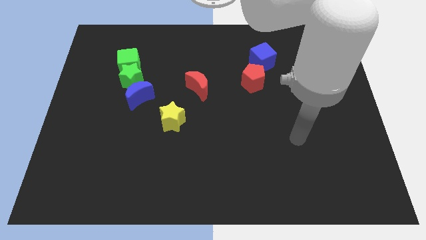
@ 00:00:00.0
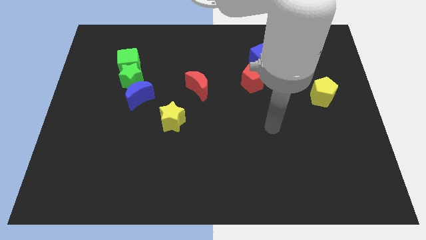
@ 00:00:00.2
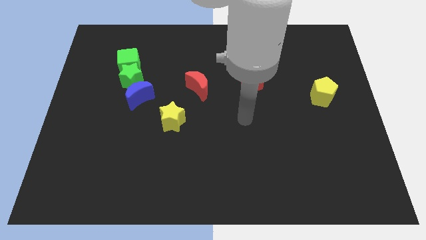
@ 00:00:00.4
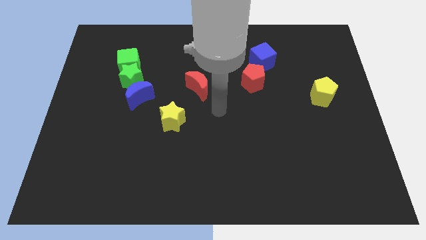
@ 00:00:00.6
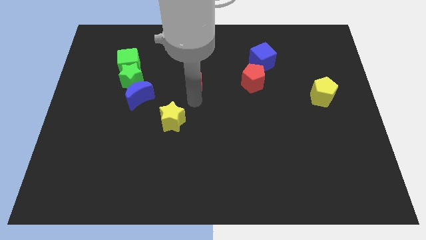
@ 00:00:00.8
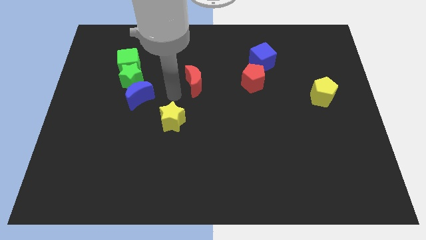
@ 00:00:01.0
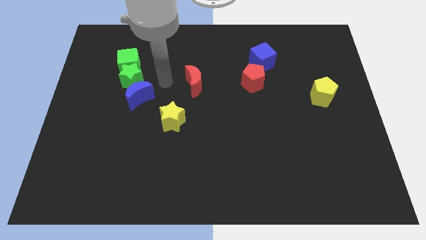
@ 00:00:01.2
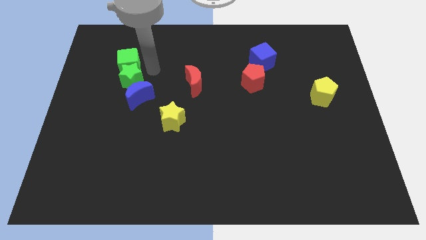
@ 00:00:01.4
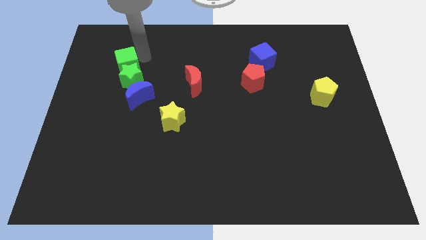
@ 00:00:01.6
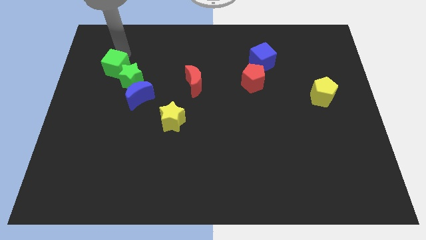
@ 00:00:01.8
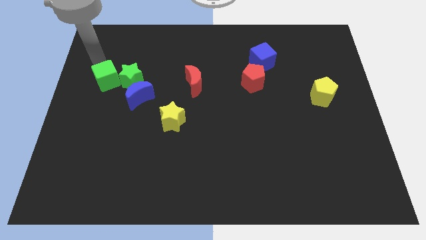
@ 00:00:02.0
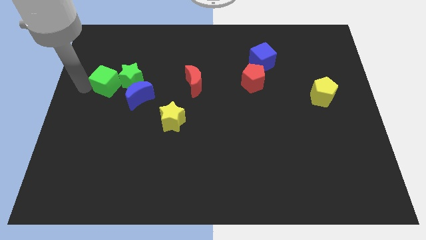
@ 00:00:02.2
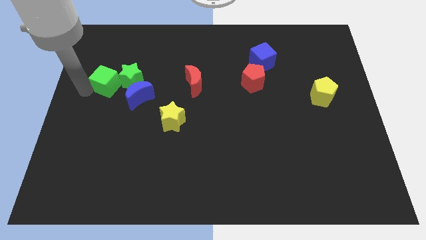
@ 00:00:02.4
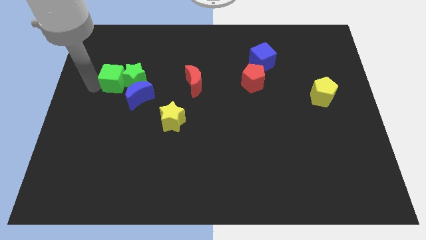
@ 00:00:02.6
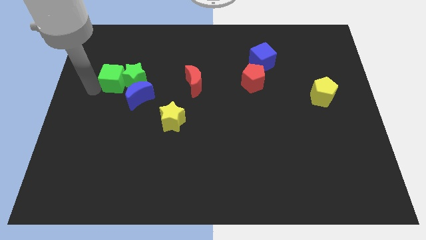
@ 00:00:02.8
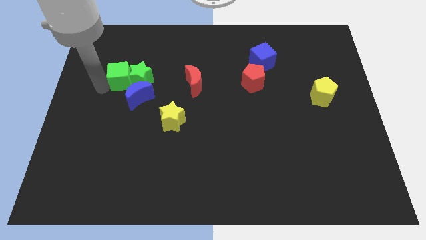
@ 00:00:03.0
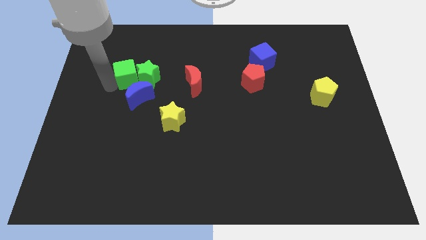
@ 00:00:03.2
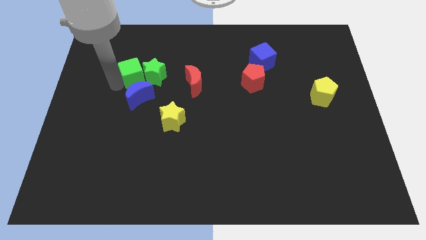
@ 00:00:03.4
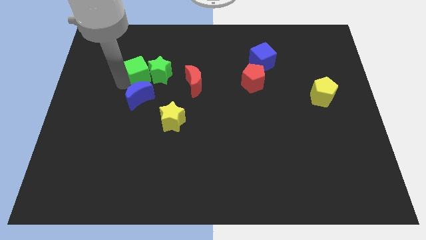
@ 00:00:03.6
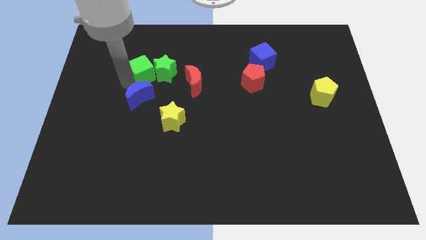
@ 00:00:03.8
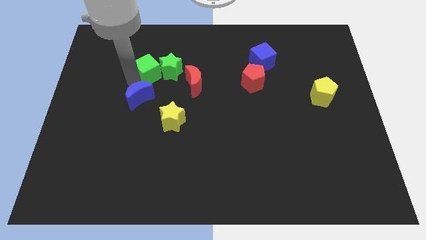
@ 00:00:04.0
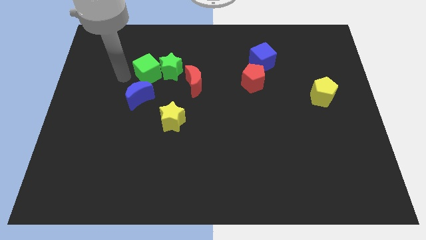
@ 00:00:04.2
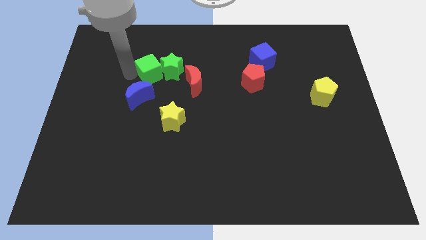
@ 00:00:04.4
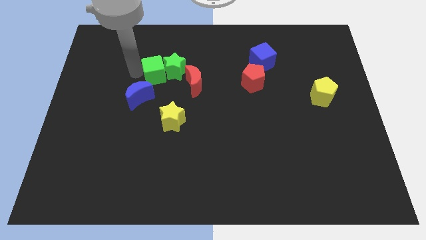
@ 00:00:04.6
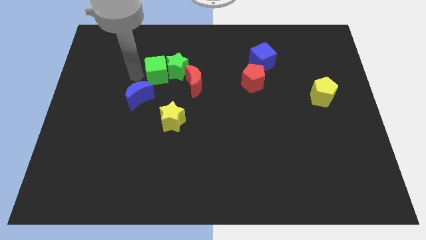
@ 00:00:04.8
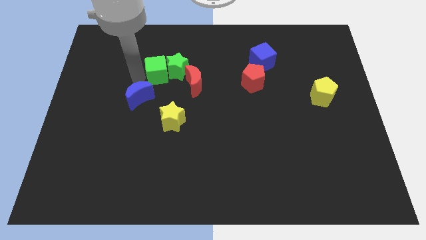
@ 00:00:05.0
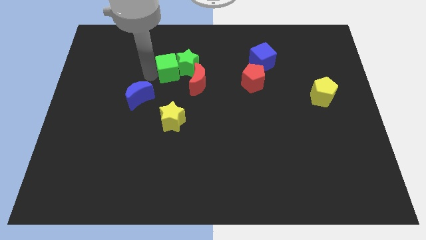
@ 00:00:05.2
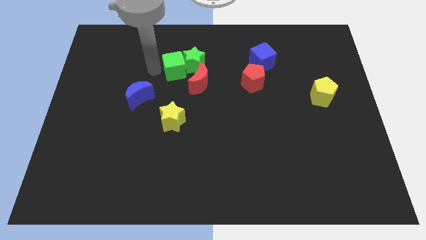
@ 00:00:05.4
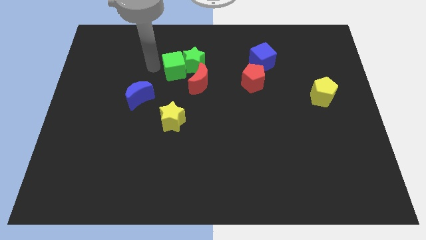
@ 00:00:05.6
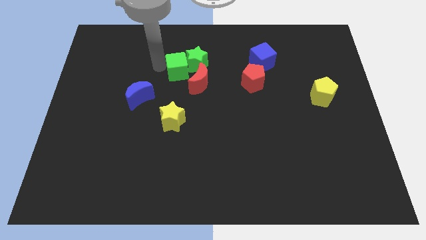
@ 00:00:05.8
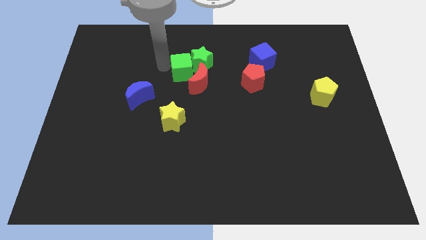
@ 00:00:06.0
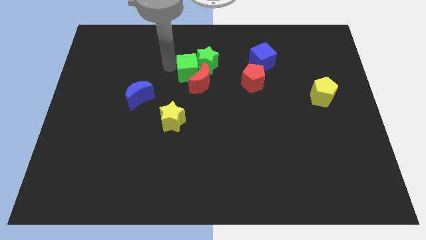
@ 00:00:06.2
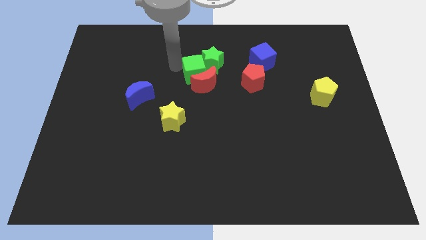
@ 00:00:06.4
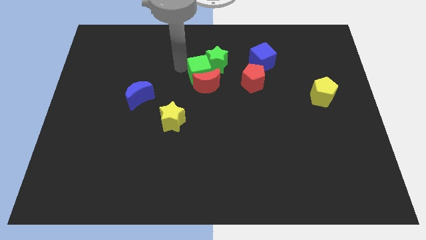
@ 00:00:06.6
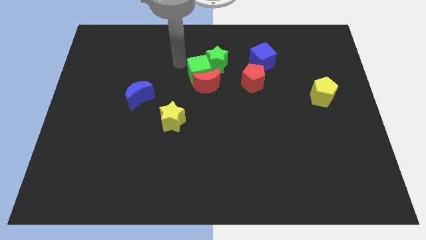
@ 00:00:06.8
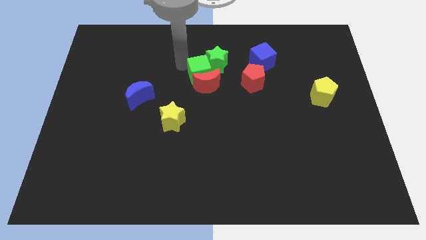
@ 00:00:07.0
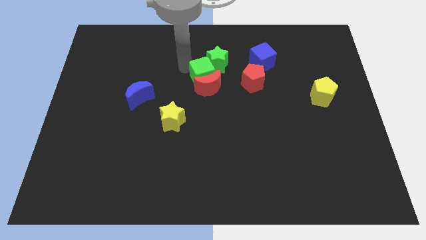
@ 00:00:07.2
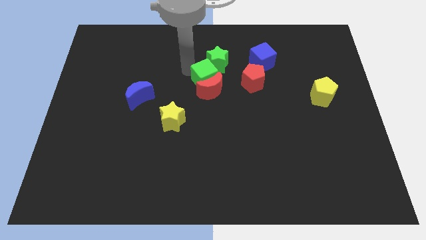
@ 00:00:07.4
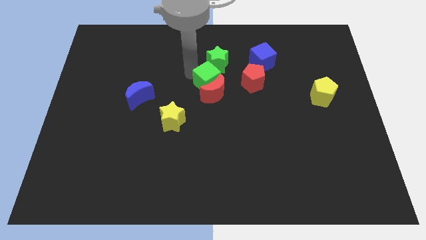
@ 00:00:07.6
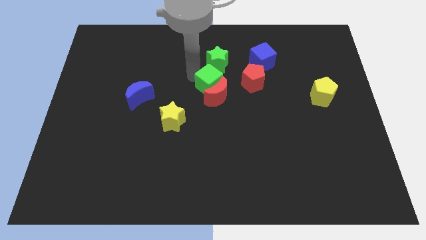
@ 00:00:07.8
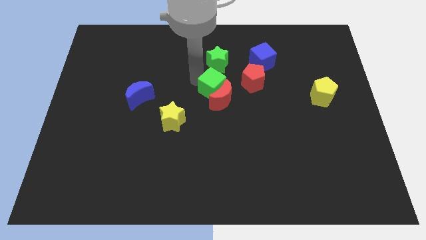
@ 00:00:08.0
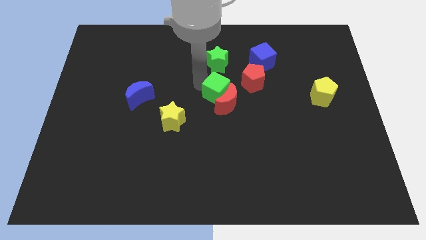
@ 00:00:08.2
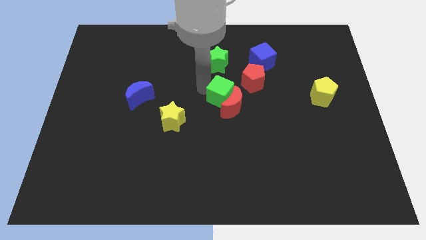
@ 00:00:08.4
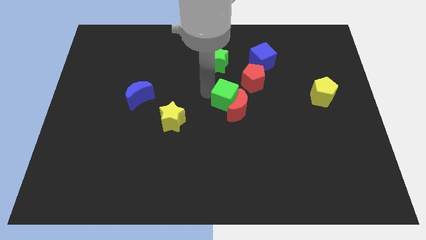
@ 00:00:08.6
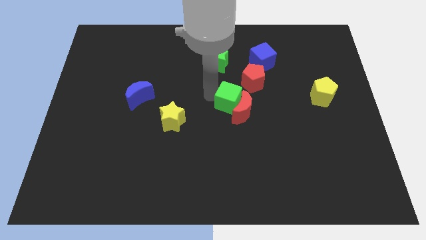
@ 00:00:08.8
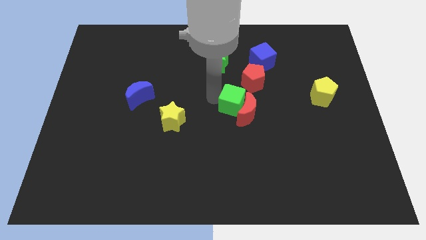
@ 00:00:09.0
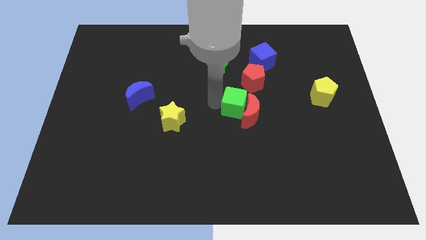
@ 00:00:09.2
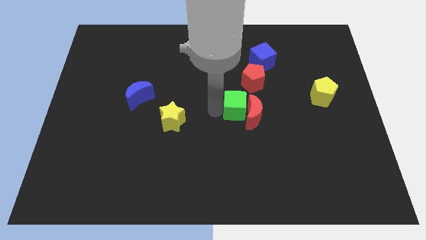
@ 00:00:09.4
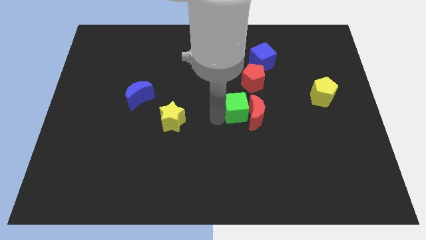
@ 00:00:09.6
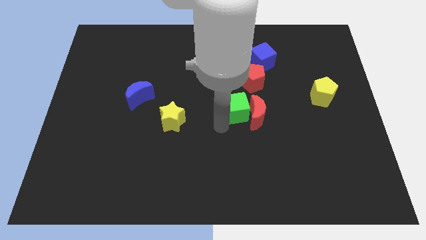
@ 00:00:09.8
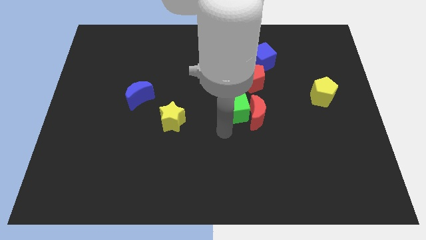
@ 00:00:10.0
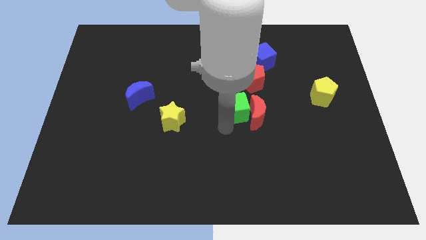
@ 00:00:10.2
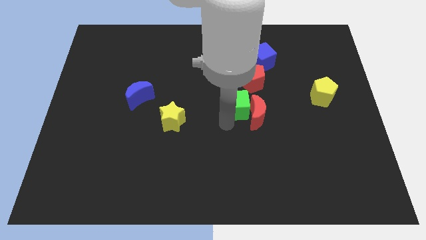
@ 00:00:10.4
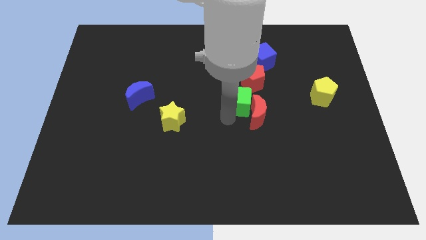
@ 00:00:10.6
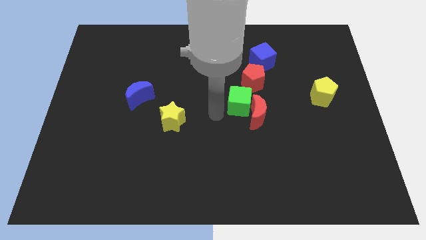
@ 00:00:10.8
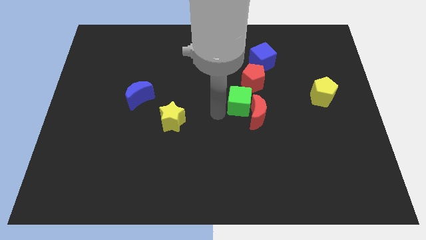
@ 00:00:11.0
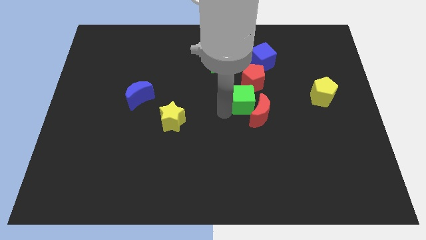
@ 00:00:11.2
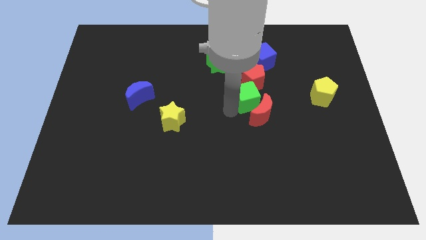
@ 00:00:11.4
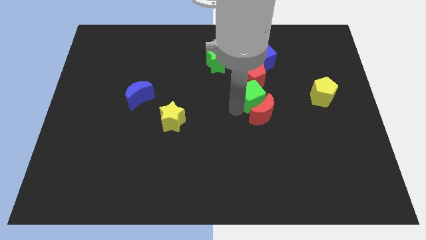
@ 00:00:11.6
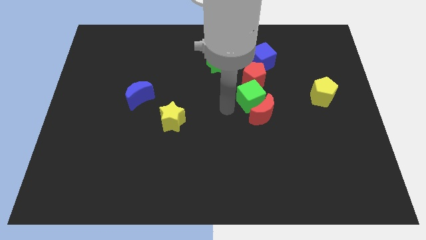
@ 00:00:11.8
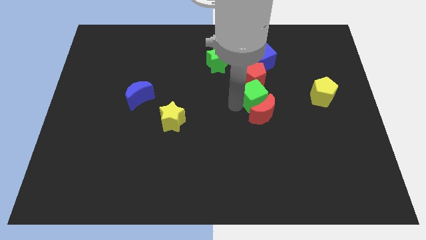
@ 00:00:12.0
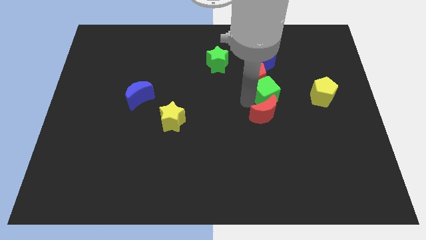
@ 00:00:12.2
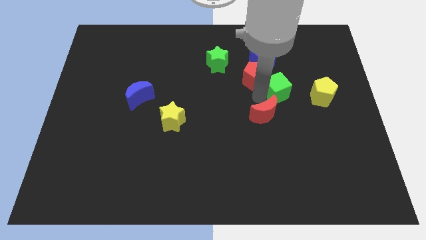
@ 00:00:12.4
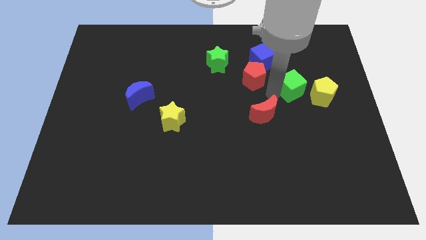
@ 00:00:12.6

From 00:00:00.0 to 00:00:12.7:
move the green cube to the top left side of the yellow pentagon

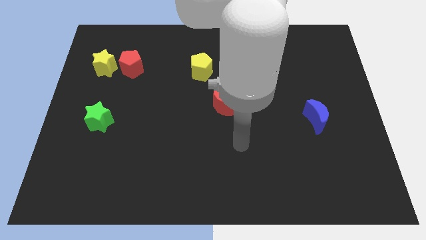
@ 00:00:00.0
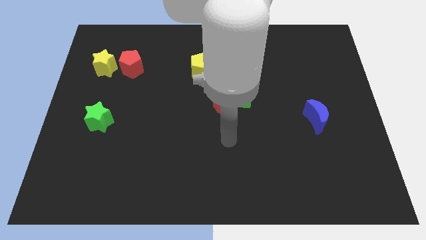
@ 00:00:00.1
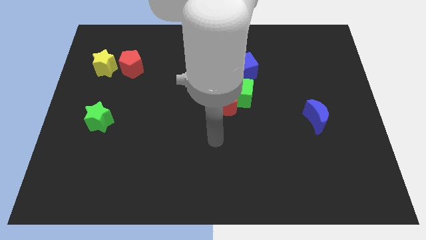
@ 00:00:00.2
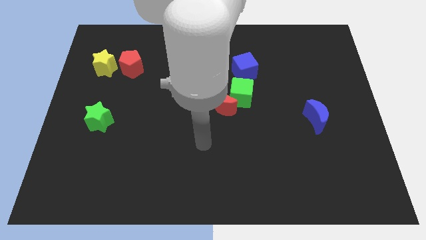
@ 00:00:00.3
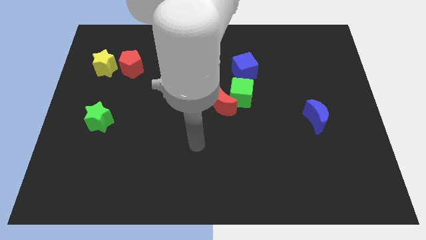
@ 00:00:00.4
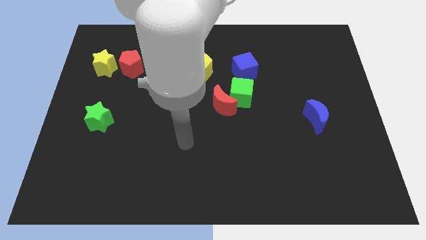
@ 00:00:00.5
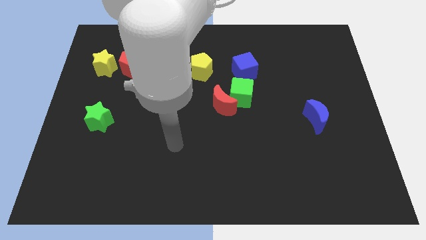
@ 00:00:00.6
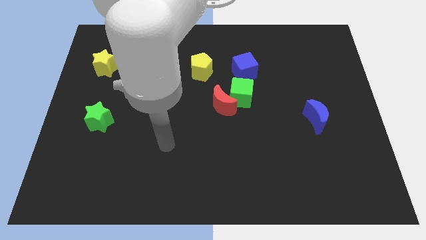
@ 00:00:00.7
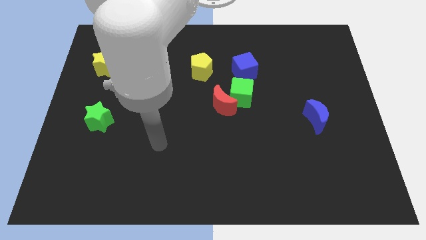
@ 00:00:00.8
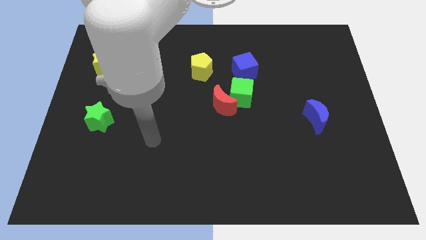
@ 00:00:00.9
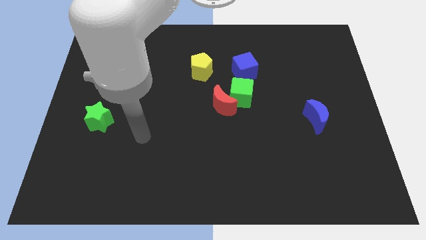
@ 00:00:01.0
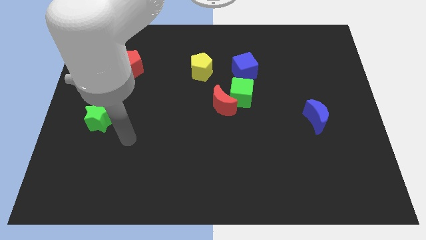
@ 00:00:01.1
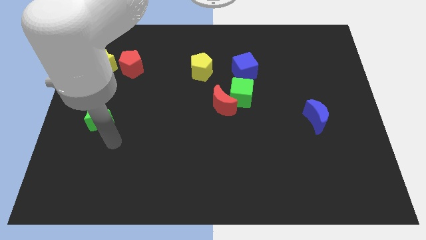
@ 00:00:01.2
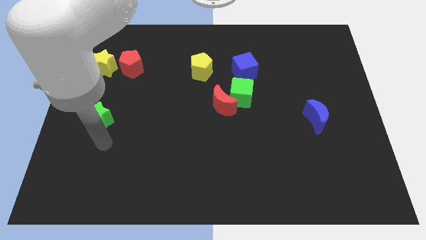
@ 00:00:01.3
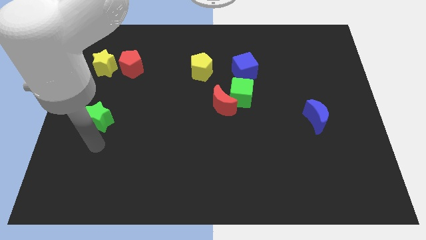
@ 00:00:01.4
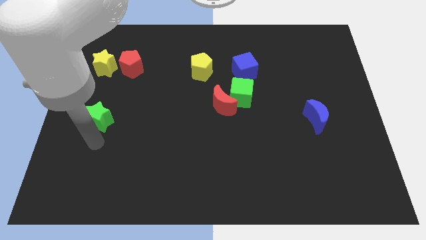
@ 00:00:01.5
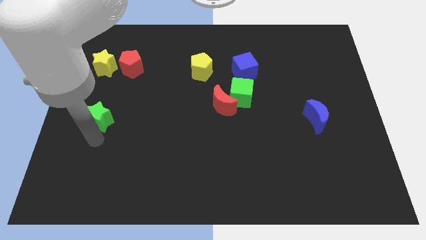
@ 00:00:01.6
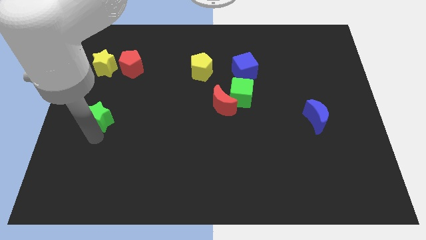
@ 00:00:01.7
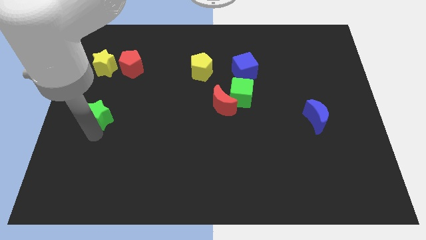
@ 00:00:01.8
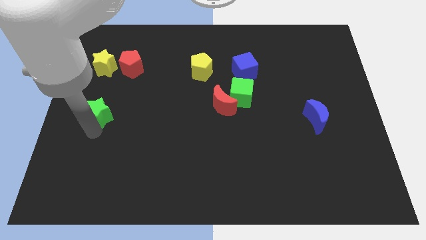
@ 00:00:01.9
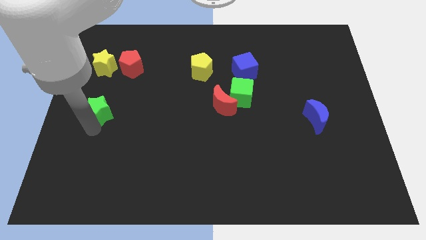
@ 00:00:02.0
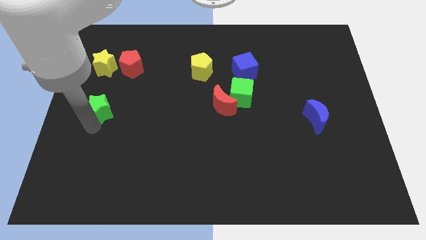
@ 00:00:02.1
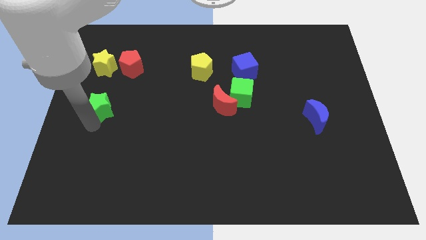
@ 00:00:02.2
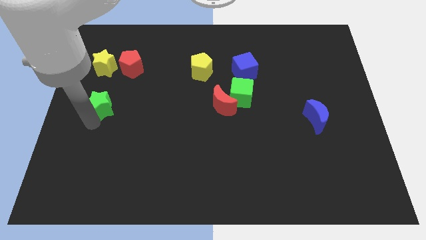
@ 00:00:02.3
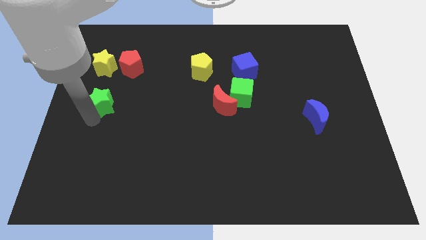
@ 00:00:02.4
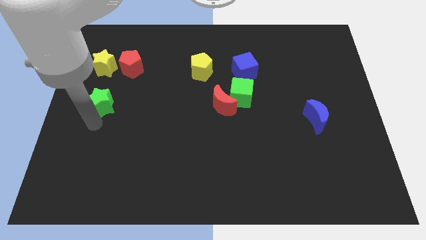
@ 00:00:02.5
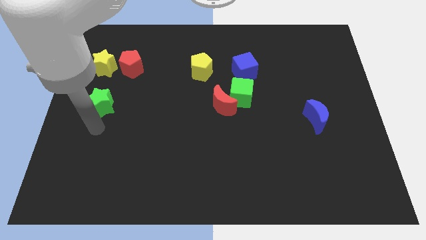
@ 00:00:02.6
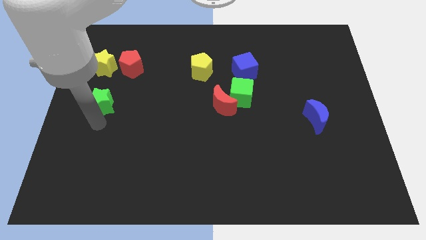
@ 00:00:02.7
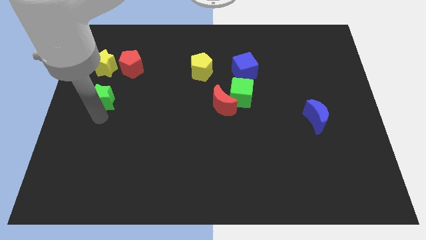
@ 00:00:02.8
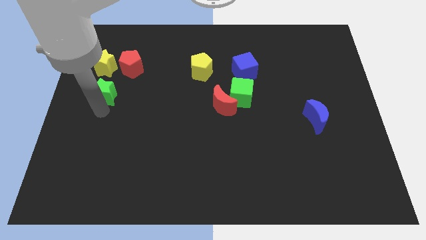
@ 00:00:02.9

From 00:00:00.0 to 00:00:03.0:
move the green star to the bottom left of the red pentagon
